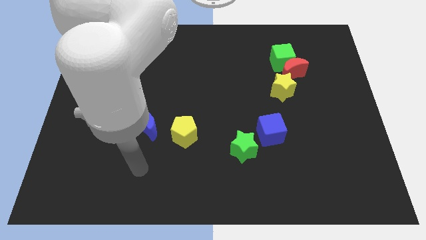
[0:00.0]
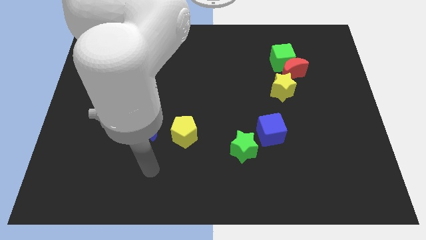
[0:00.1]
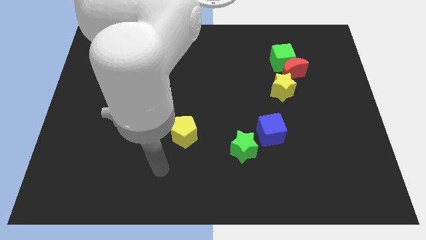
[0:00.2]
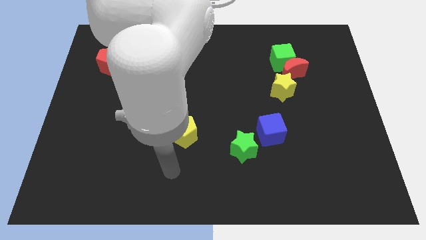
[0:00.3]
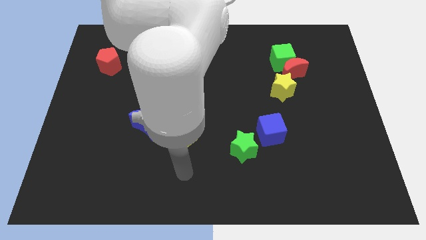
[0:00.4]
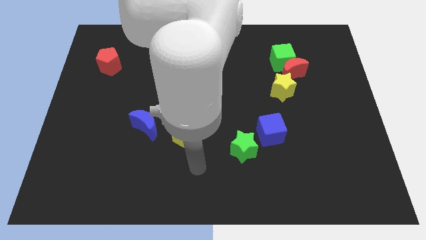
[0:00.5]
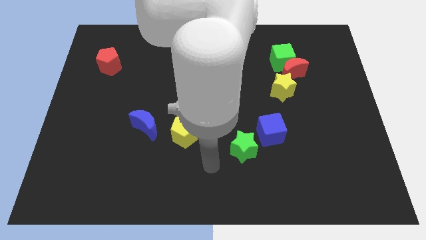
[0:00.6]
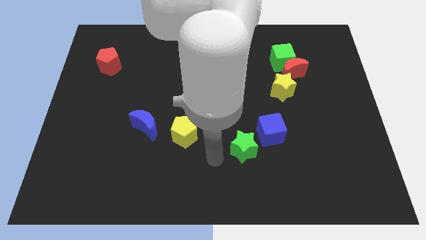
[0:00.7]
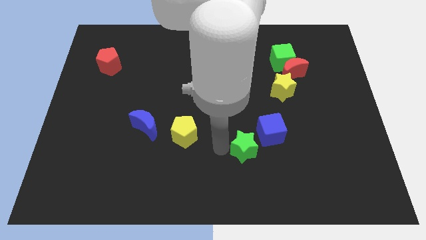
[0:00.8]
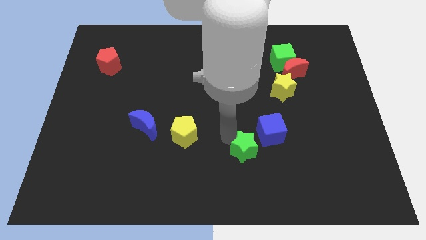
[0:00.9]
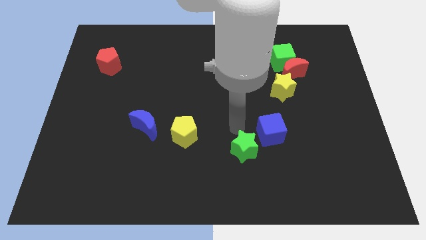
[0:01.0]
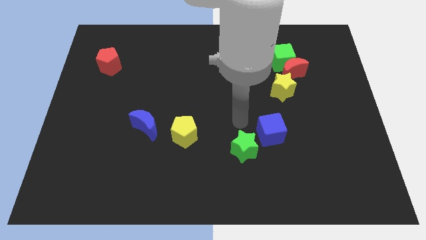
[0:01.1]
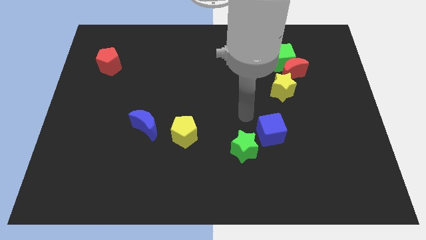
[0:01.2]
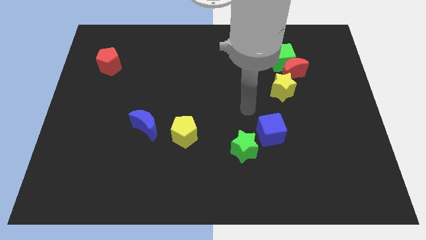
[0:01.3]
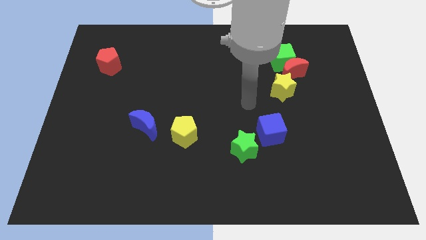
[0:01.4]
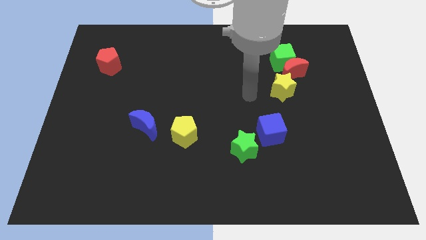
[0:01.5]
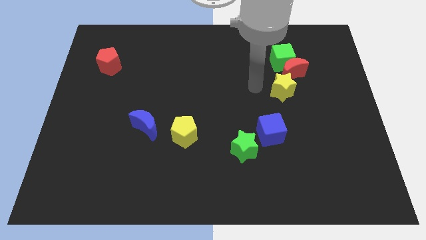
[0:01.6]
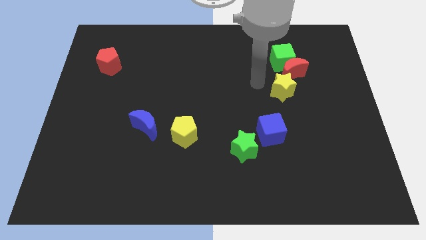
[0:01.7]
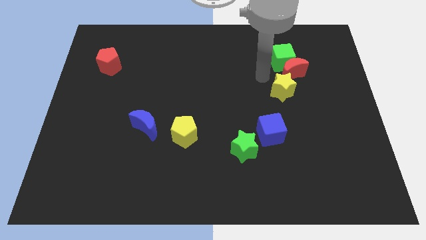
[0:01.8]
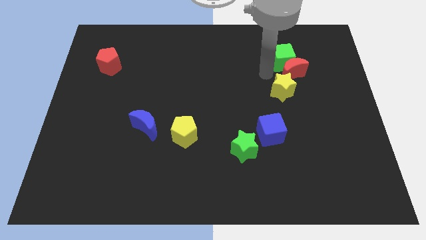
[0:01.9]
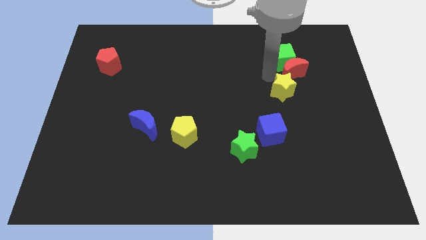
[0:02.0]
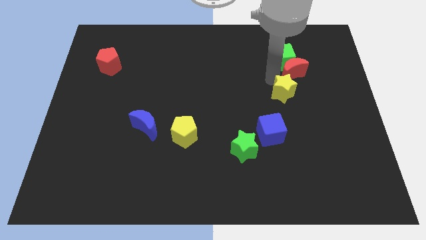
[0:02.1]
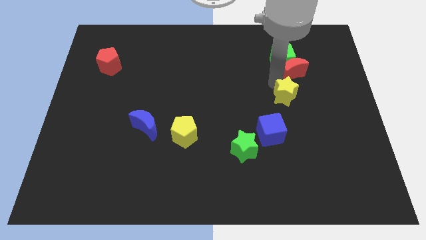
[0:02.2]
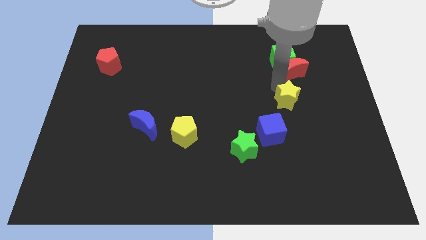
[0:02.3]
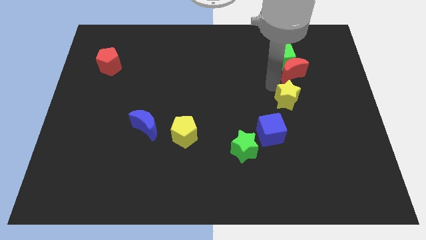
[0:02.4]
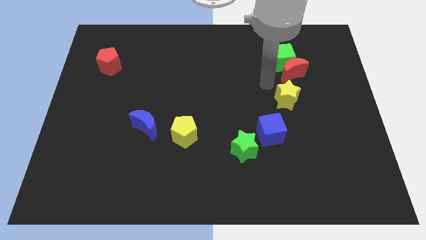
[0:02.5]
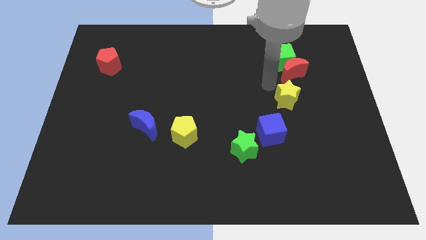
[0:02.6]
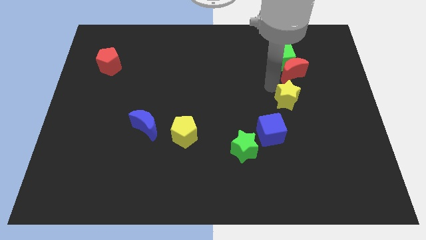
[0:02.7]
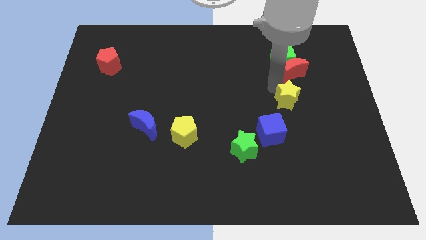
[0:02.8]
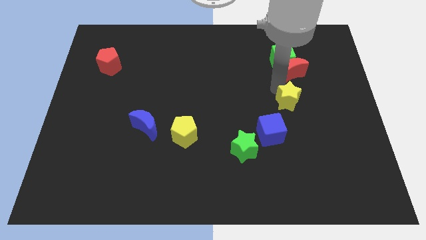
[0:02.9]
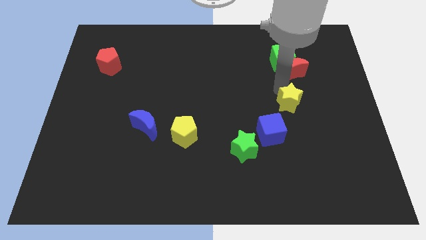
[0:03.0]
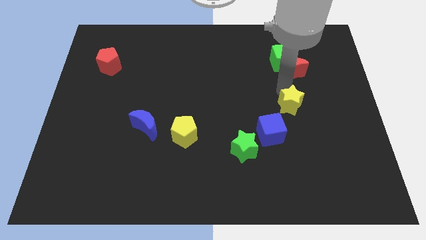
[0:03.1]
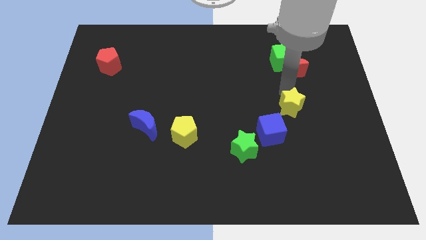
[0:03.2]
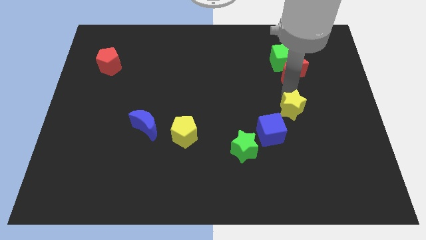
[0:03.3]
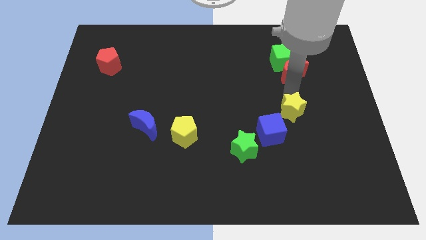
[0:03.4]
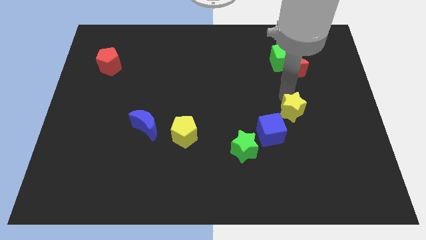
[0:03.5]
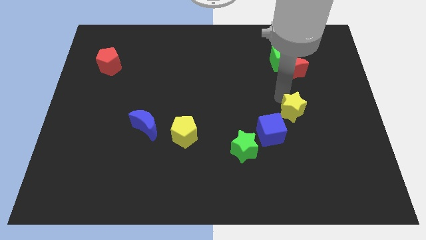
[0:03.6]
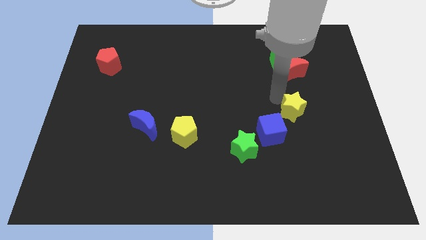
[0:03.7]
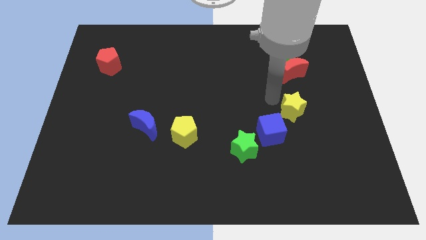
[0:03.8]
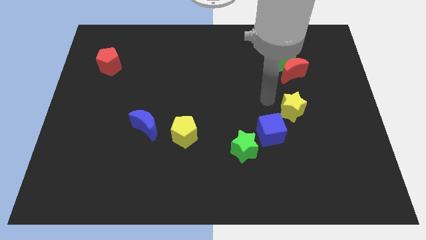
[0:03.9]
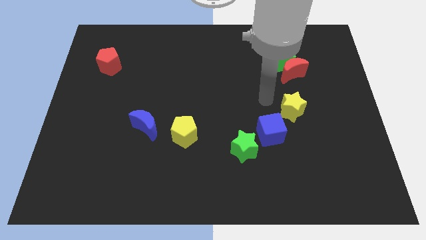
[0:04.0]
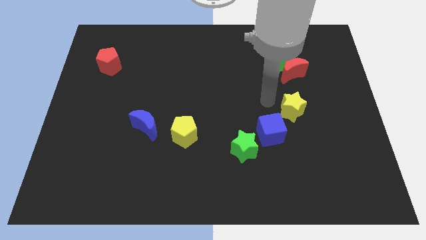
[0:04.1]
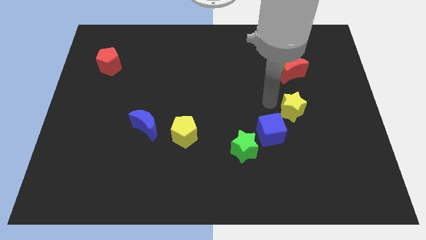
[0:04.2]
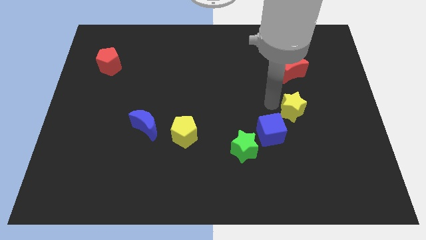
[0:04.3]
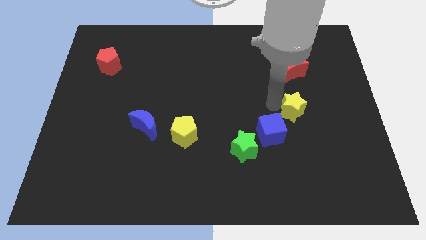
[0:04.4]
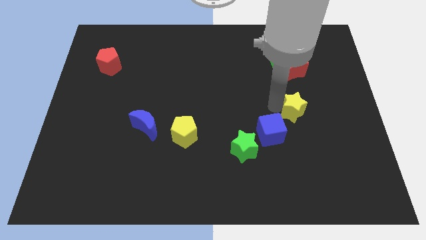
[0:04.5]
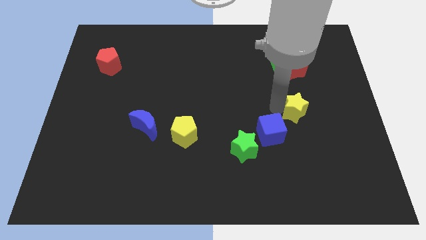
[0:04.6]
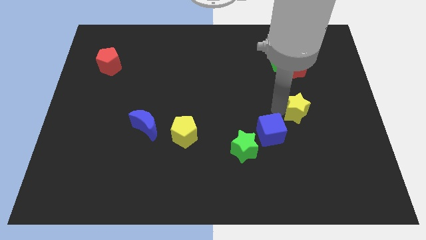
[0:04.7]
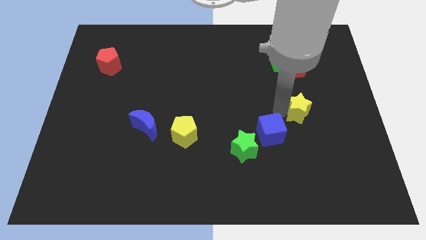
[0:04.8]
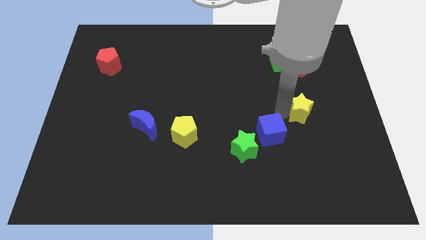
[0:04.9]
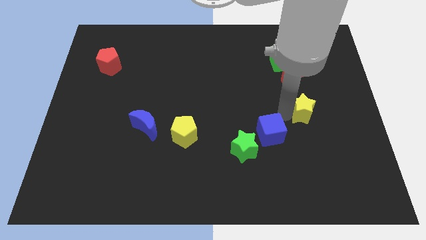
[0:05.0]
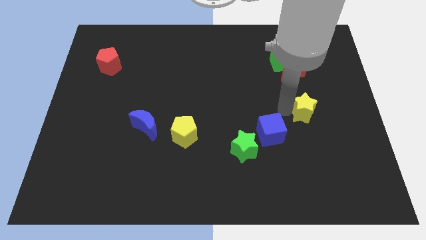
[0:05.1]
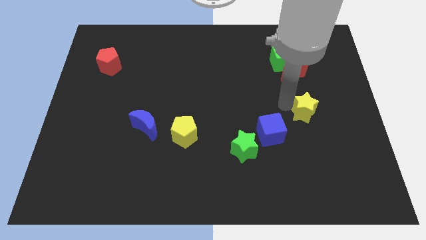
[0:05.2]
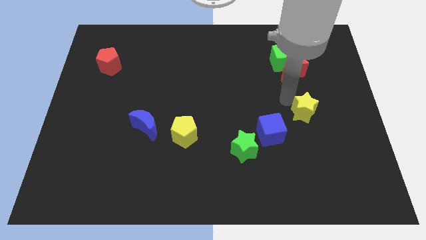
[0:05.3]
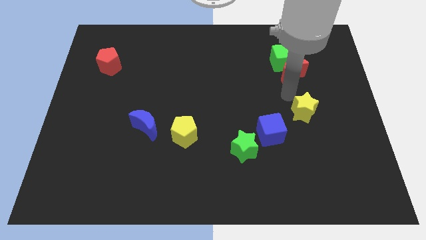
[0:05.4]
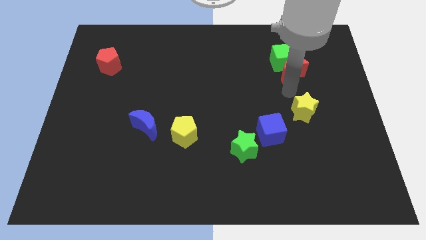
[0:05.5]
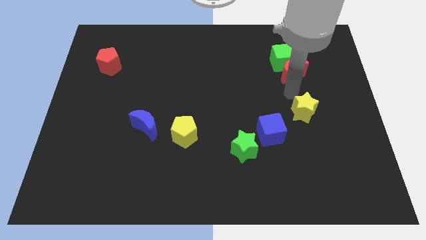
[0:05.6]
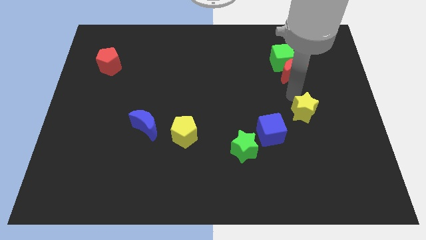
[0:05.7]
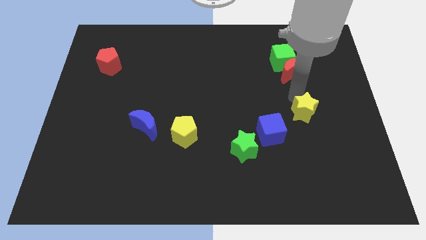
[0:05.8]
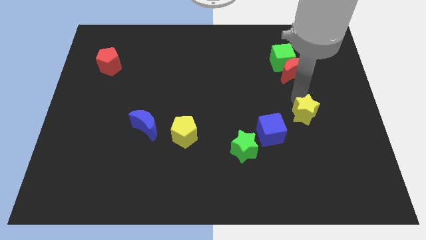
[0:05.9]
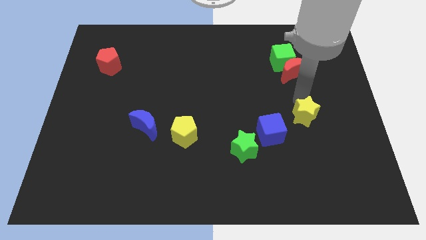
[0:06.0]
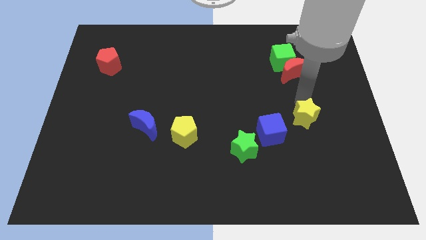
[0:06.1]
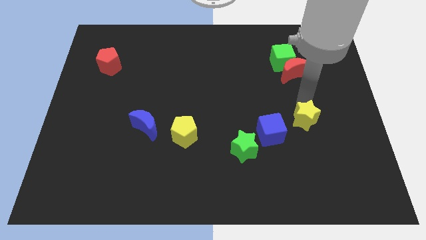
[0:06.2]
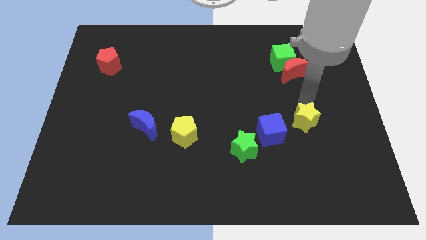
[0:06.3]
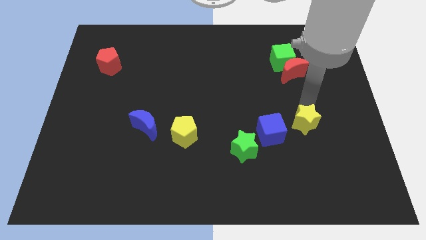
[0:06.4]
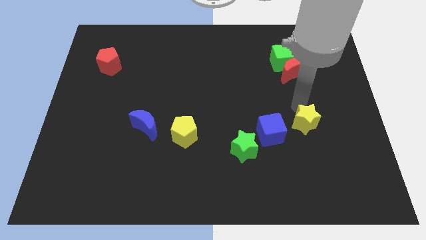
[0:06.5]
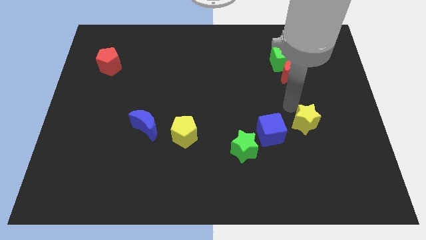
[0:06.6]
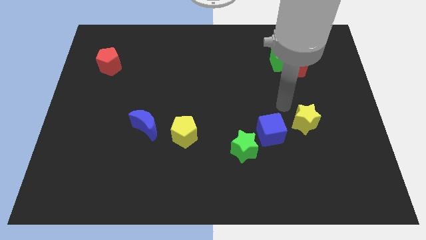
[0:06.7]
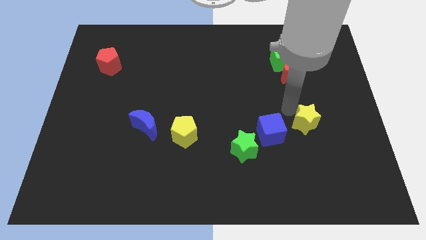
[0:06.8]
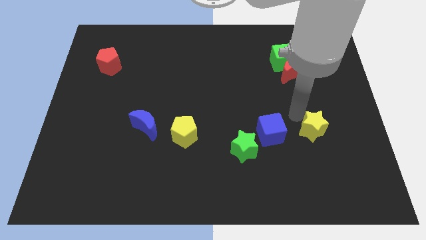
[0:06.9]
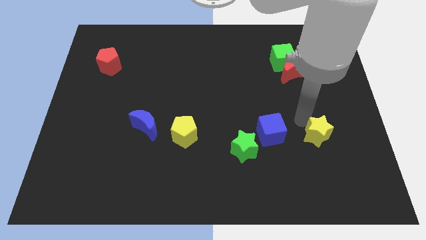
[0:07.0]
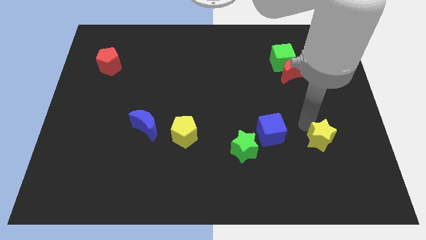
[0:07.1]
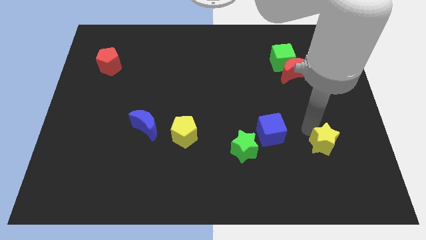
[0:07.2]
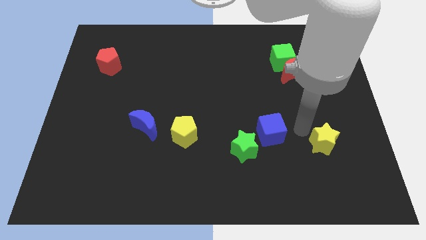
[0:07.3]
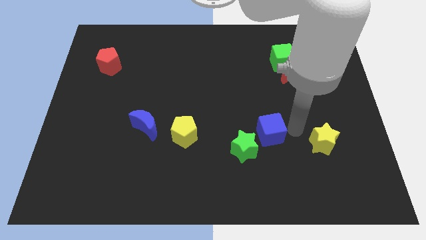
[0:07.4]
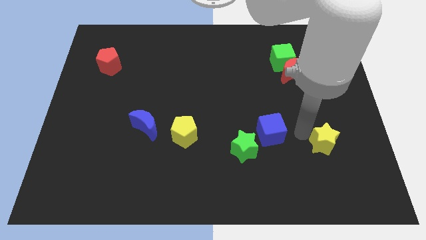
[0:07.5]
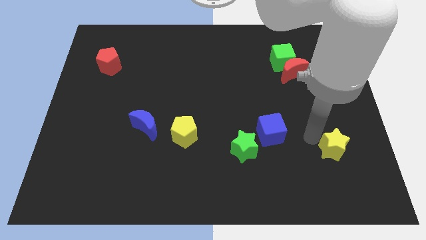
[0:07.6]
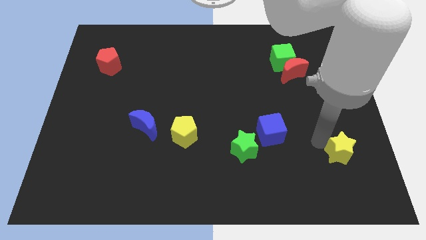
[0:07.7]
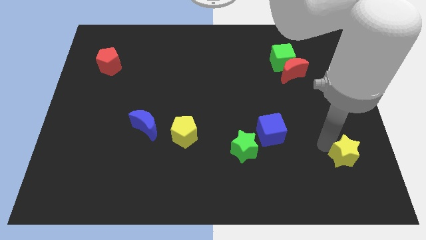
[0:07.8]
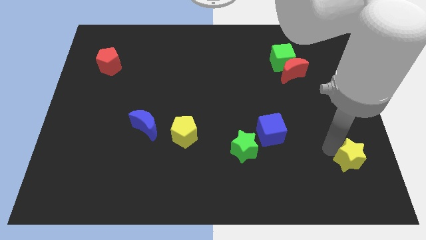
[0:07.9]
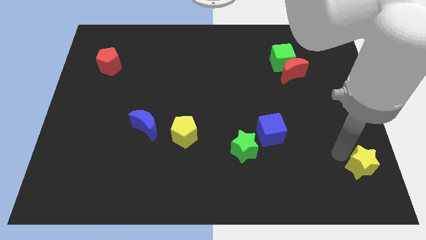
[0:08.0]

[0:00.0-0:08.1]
slide the yellow star to the bottom right of the board
